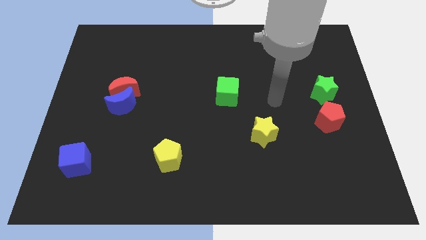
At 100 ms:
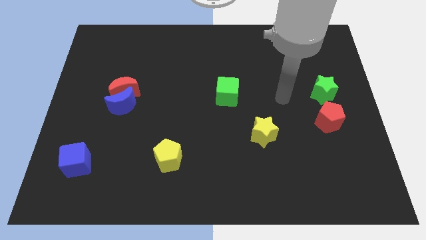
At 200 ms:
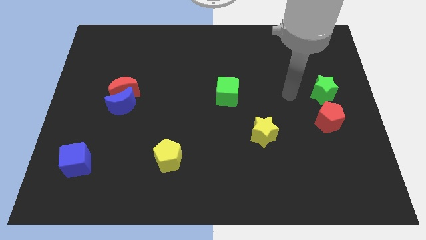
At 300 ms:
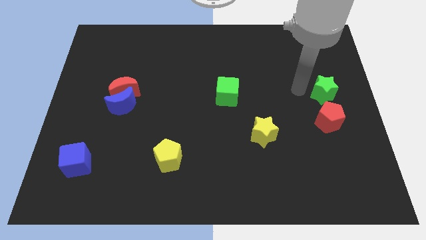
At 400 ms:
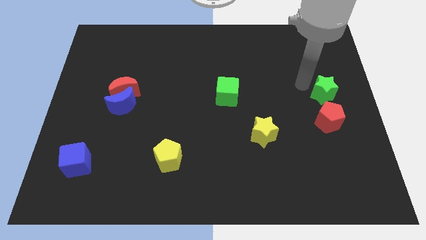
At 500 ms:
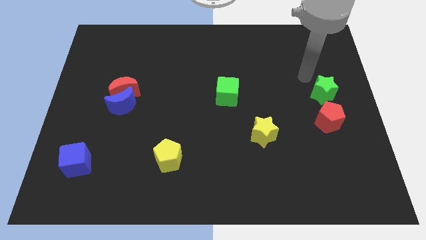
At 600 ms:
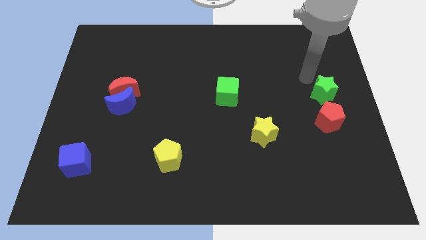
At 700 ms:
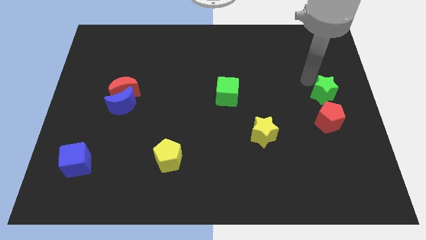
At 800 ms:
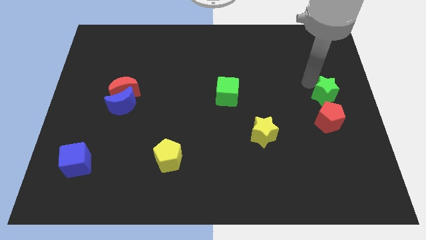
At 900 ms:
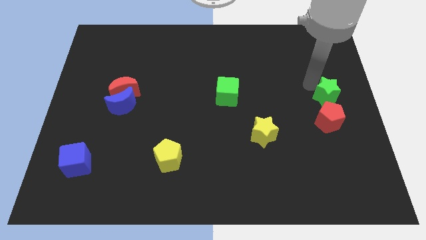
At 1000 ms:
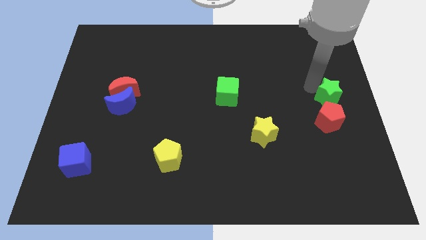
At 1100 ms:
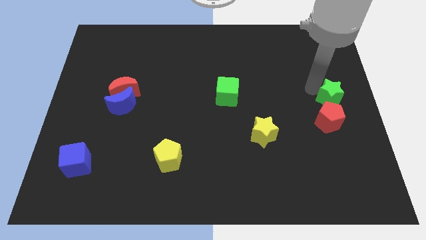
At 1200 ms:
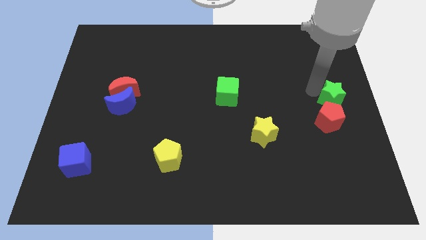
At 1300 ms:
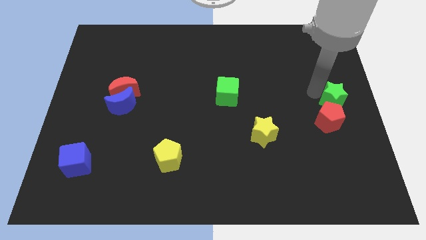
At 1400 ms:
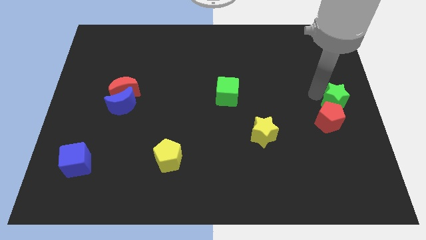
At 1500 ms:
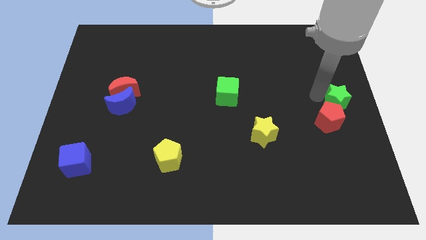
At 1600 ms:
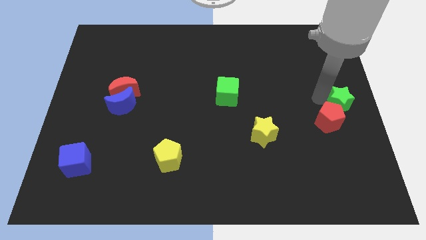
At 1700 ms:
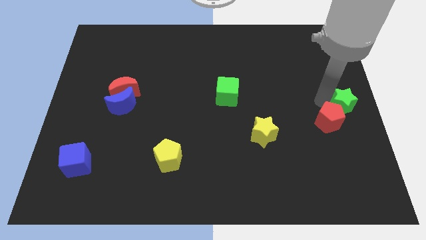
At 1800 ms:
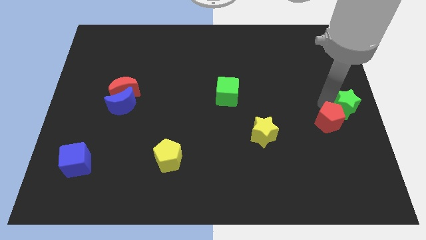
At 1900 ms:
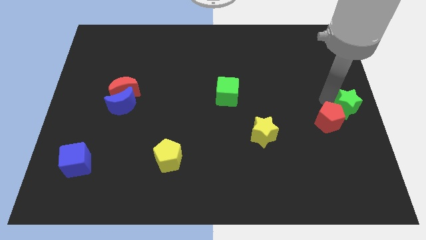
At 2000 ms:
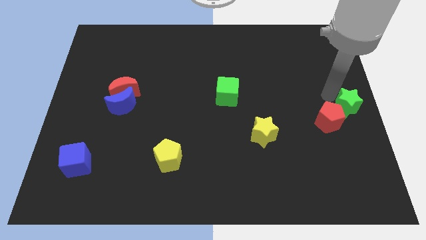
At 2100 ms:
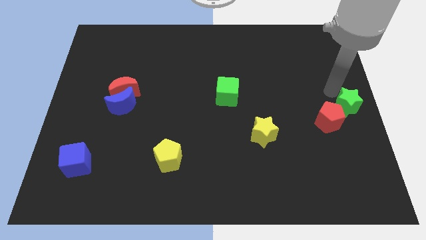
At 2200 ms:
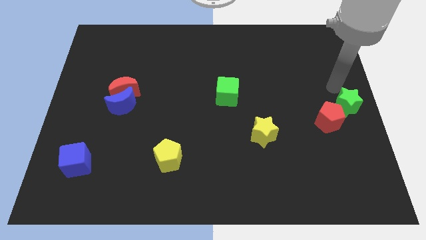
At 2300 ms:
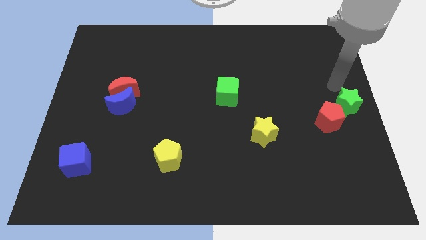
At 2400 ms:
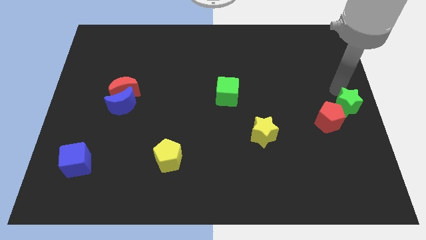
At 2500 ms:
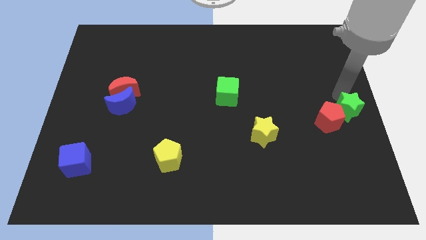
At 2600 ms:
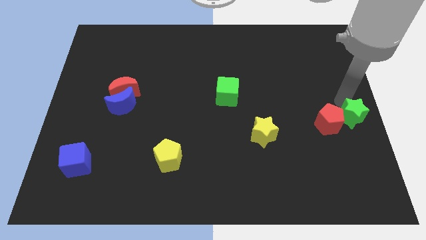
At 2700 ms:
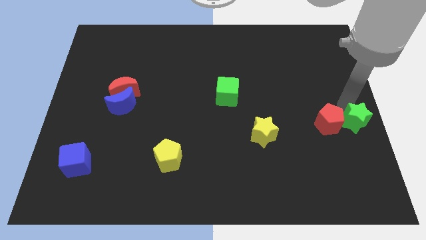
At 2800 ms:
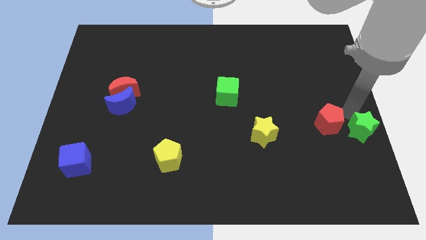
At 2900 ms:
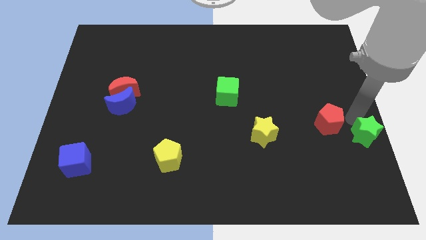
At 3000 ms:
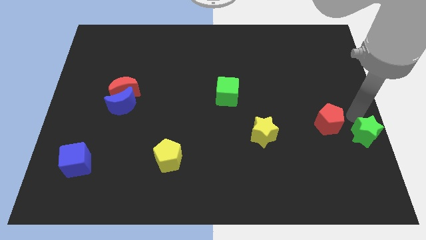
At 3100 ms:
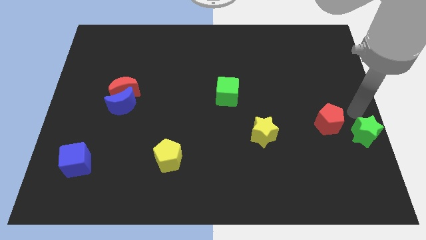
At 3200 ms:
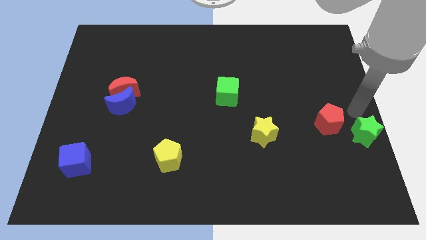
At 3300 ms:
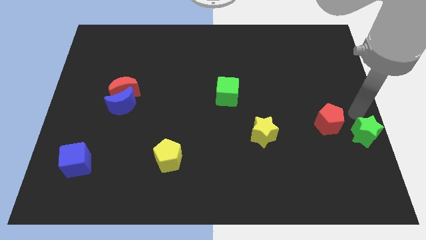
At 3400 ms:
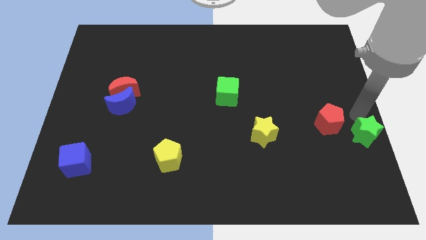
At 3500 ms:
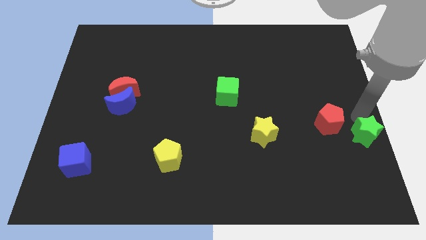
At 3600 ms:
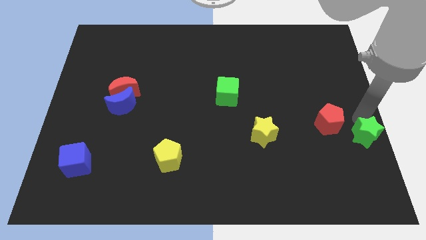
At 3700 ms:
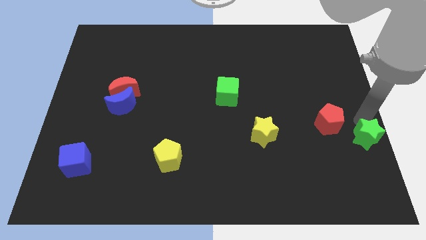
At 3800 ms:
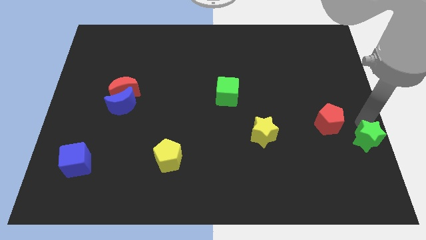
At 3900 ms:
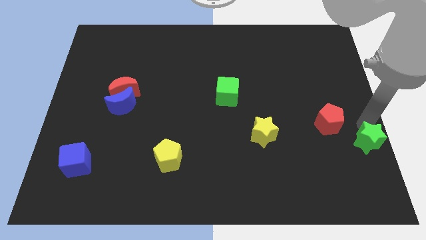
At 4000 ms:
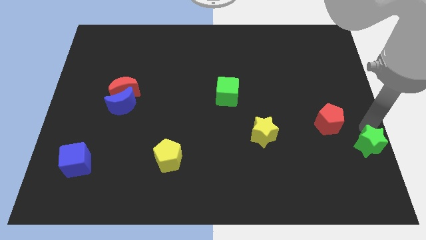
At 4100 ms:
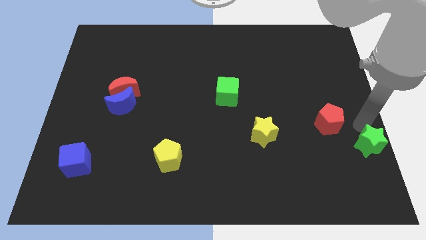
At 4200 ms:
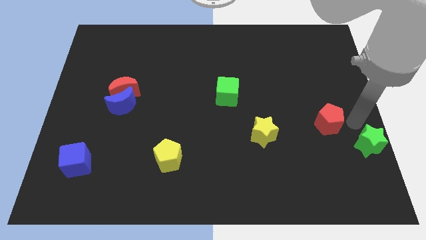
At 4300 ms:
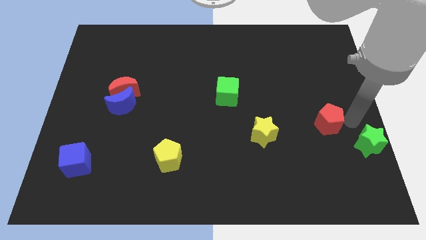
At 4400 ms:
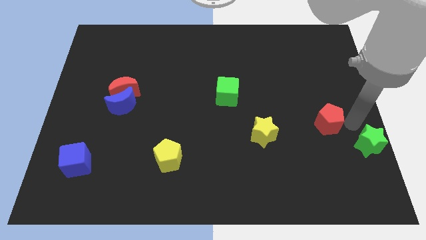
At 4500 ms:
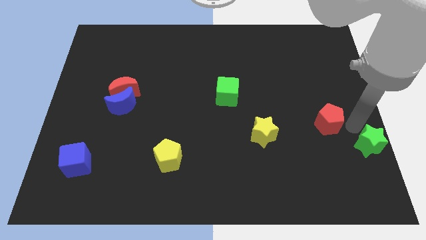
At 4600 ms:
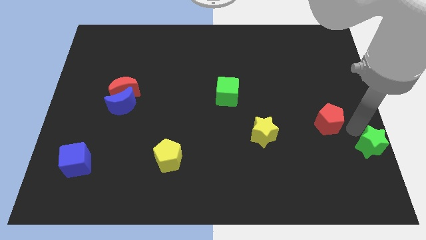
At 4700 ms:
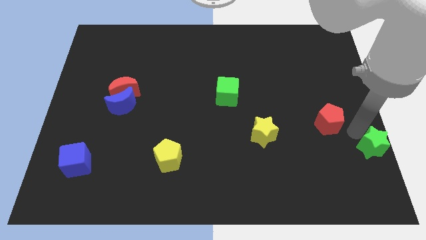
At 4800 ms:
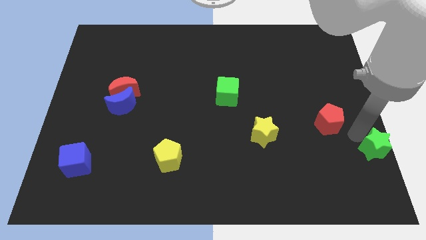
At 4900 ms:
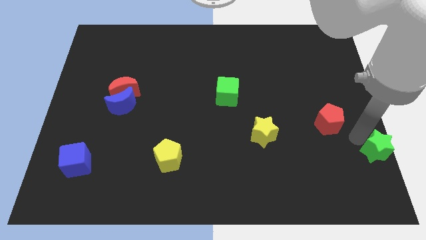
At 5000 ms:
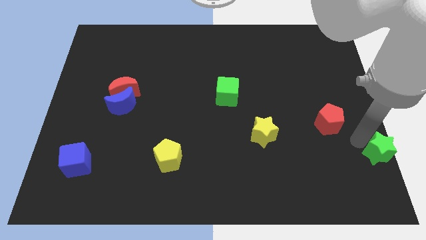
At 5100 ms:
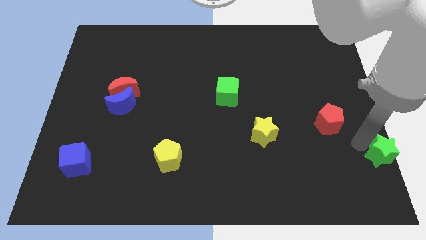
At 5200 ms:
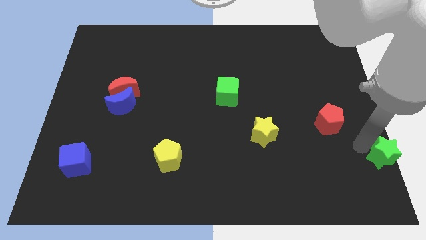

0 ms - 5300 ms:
push the green star to the bottom right

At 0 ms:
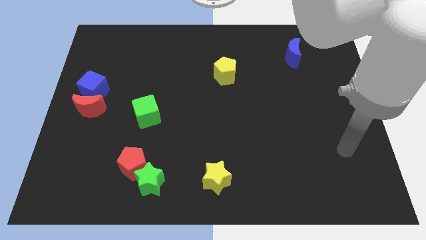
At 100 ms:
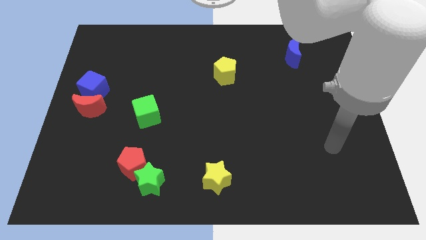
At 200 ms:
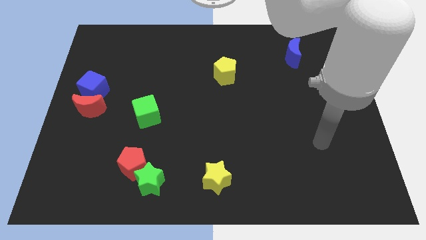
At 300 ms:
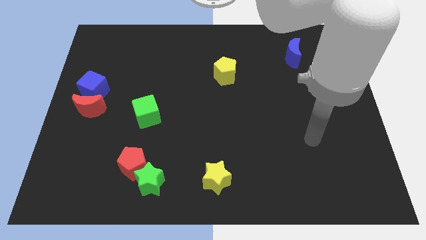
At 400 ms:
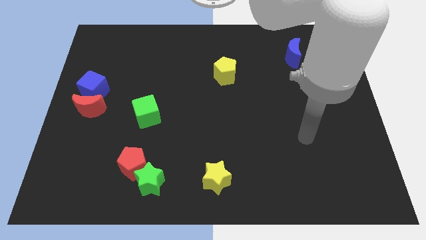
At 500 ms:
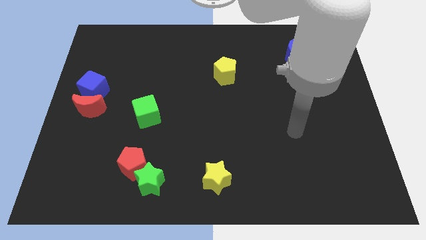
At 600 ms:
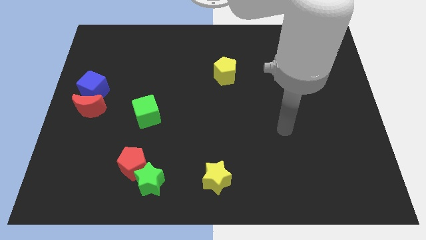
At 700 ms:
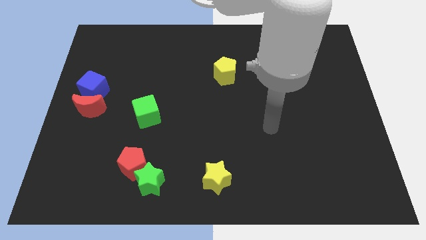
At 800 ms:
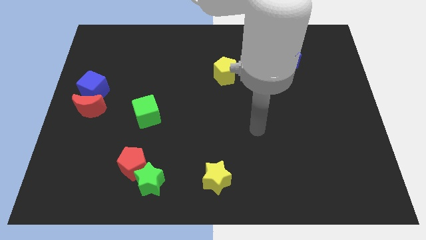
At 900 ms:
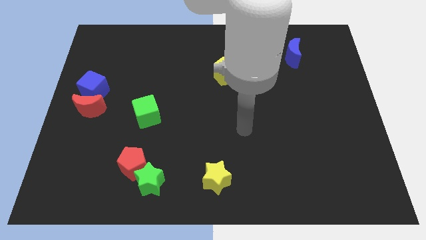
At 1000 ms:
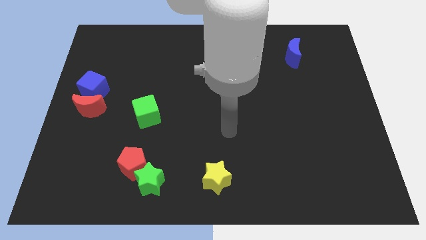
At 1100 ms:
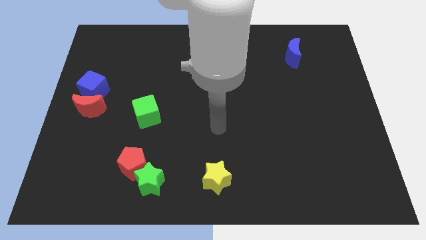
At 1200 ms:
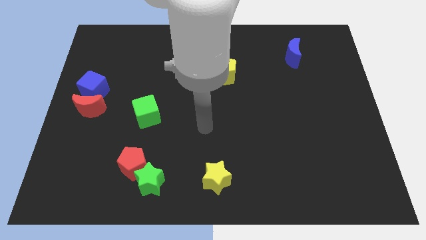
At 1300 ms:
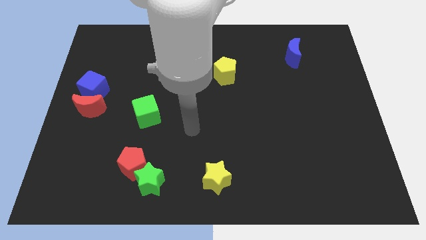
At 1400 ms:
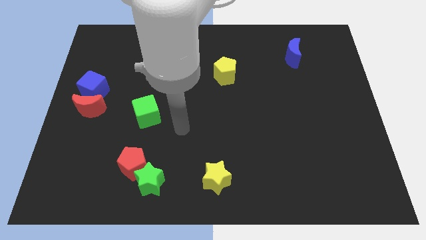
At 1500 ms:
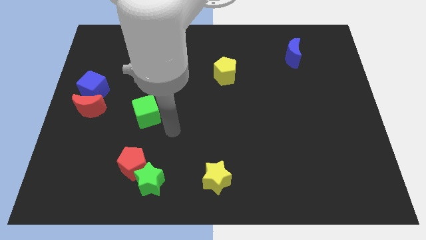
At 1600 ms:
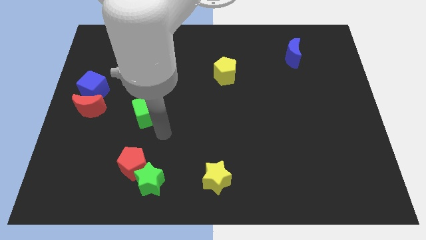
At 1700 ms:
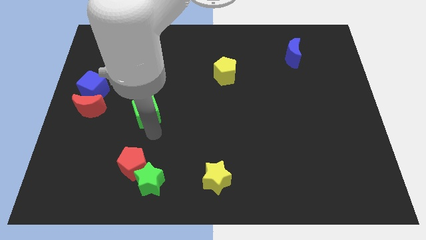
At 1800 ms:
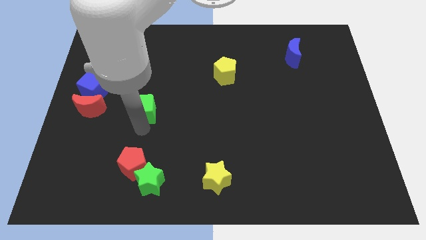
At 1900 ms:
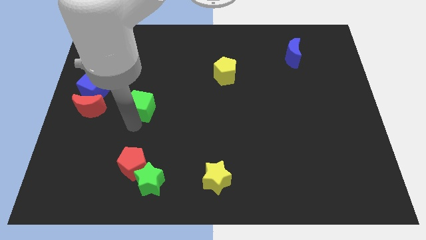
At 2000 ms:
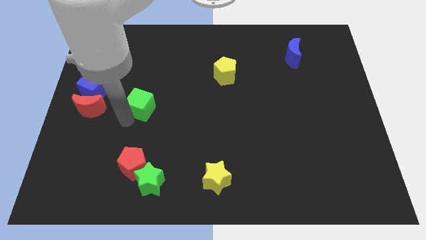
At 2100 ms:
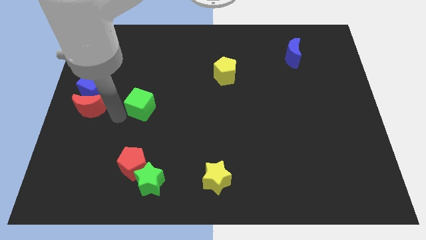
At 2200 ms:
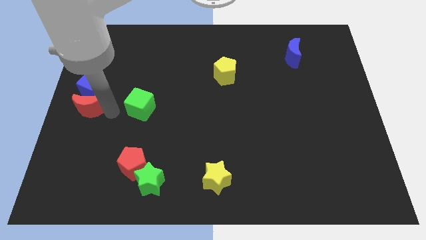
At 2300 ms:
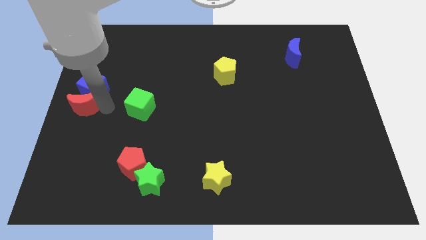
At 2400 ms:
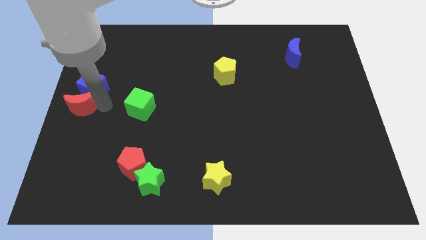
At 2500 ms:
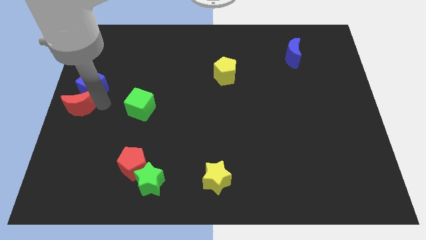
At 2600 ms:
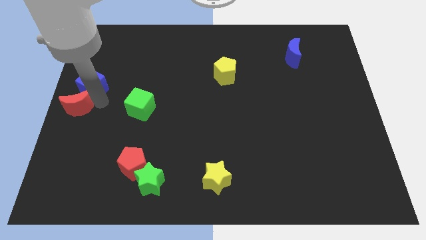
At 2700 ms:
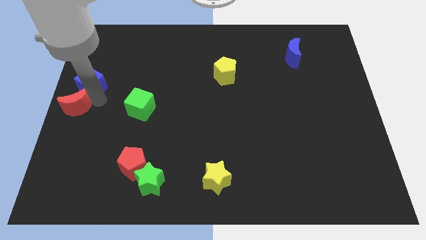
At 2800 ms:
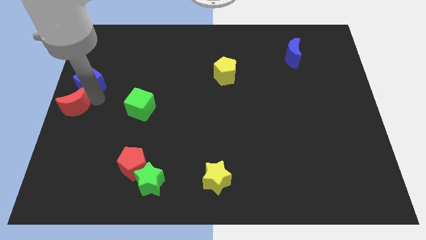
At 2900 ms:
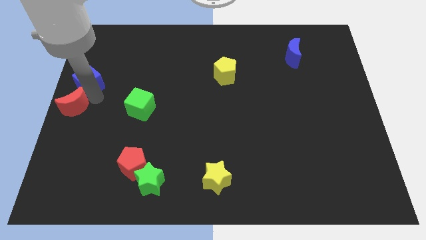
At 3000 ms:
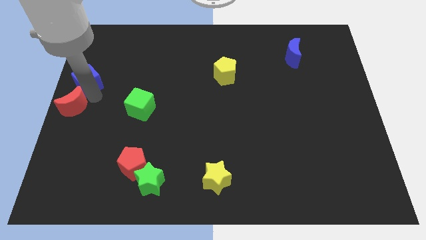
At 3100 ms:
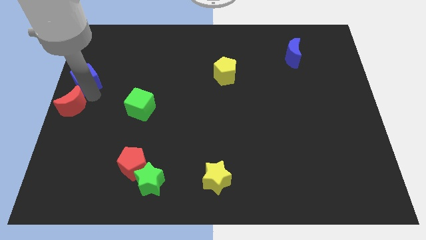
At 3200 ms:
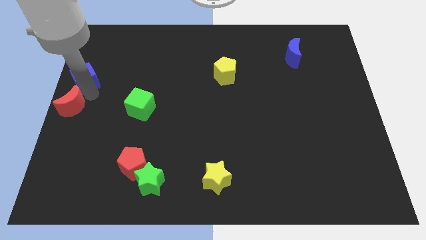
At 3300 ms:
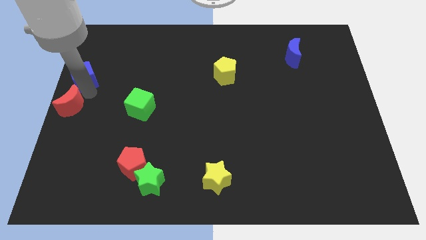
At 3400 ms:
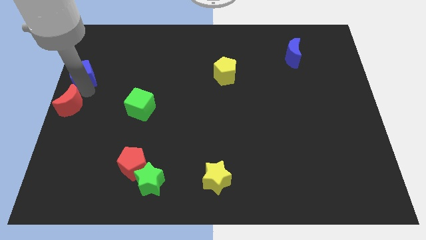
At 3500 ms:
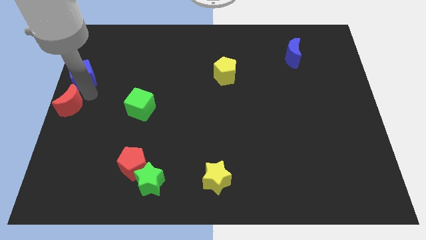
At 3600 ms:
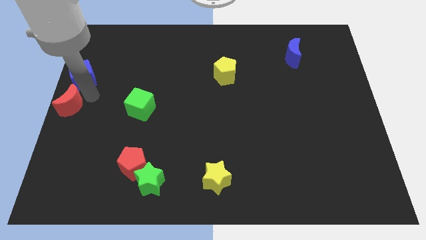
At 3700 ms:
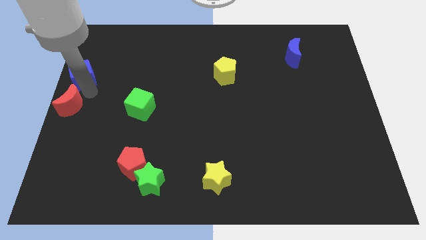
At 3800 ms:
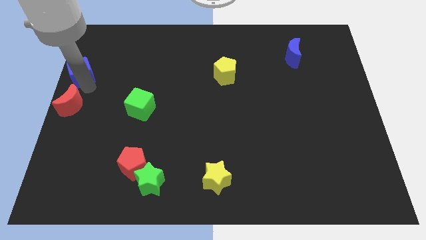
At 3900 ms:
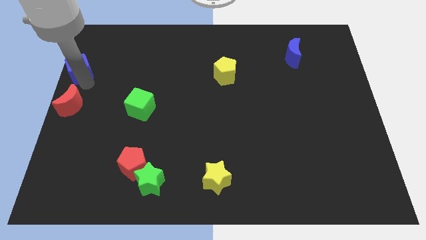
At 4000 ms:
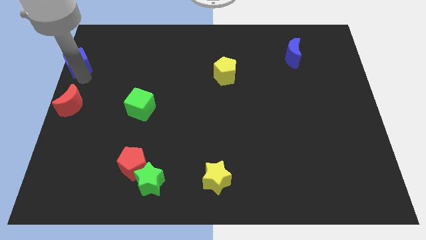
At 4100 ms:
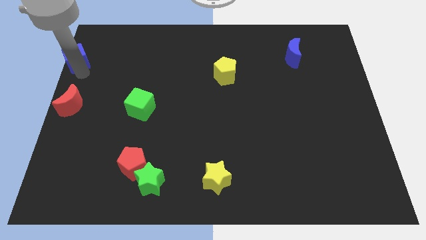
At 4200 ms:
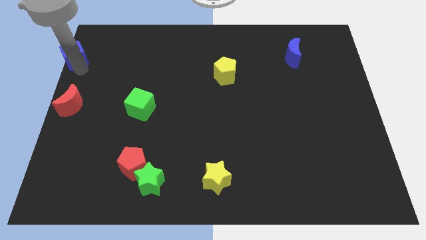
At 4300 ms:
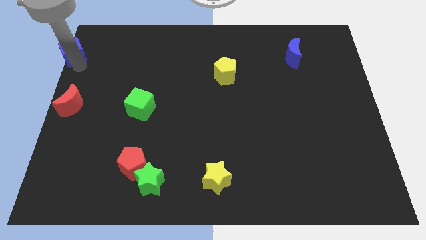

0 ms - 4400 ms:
move the blue cube to the top left of the board
